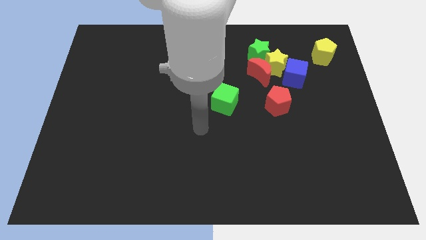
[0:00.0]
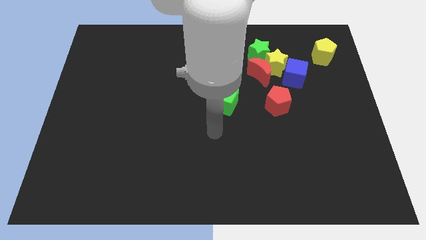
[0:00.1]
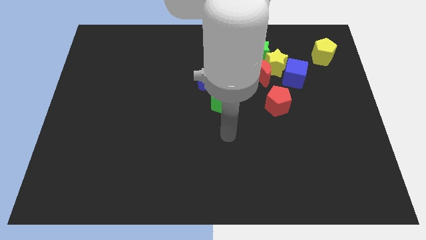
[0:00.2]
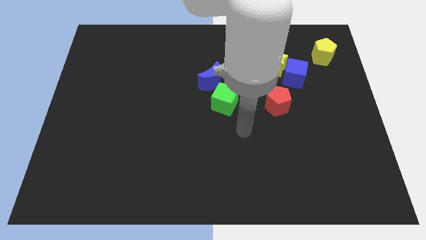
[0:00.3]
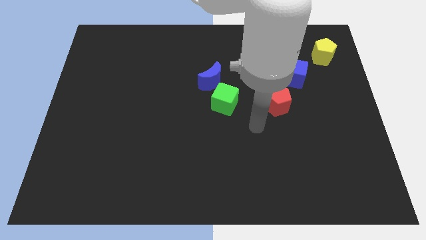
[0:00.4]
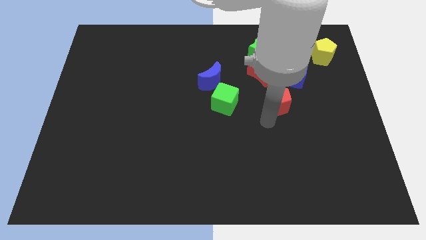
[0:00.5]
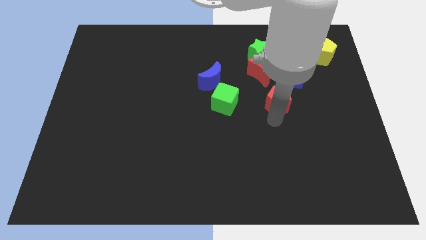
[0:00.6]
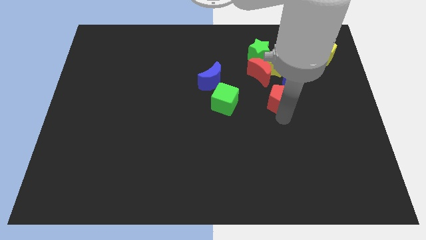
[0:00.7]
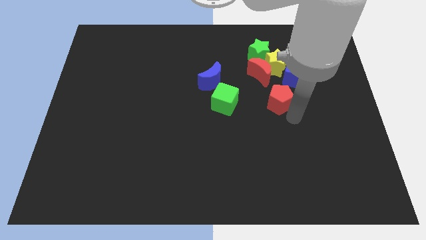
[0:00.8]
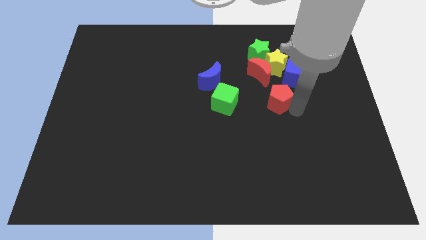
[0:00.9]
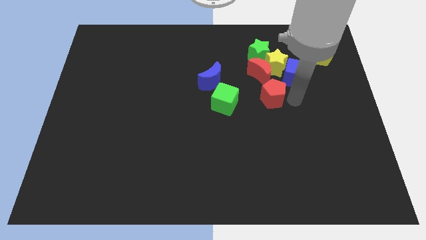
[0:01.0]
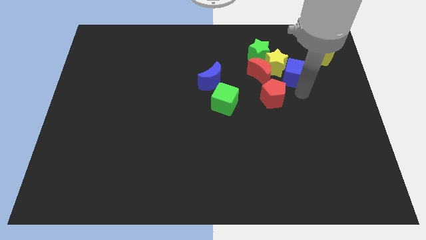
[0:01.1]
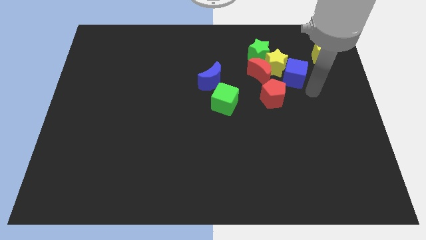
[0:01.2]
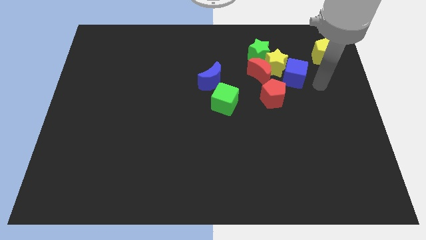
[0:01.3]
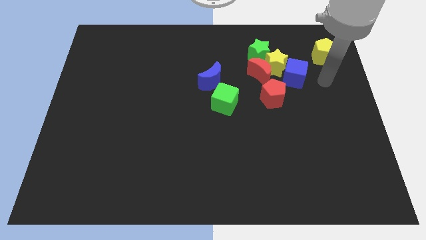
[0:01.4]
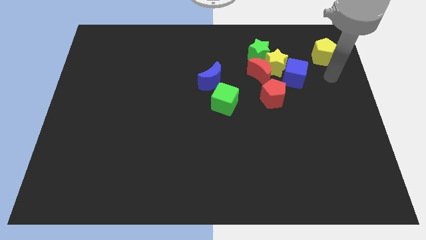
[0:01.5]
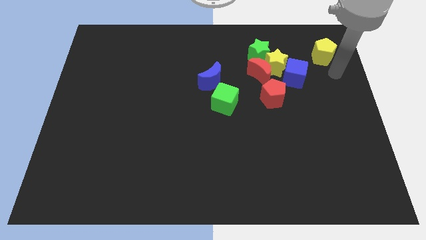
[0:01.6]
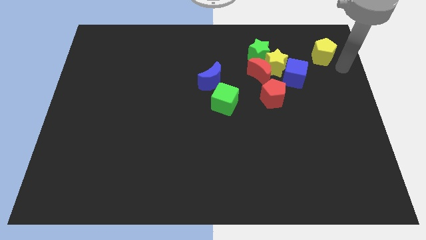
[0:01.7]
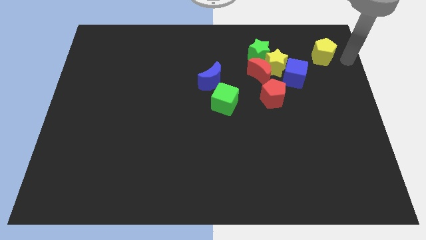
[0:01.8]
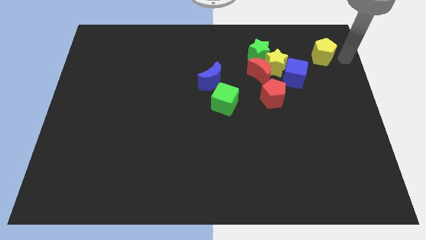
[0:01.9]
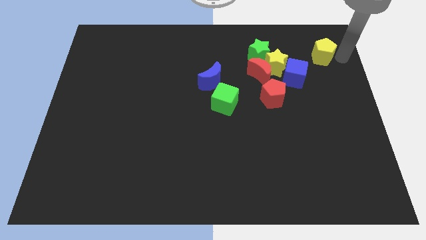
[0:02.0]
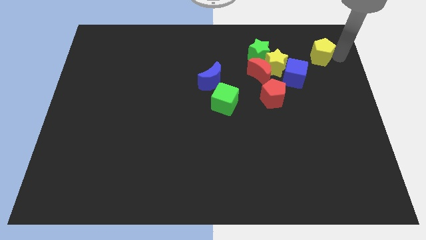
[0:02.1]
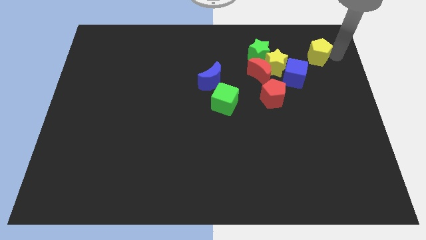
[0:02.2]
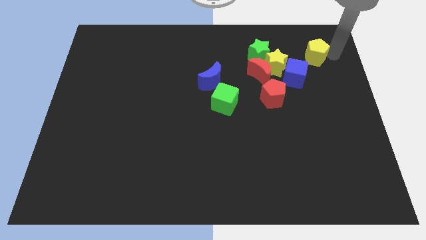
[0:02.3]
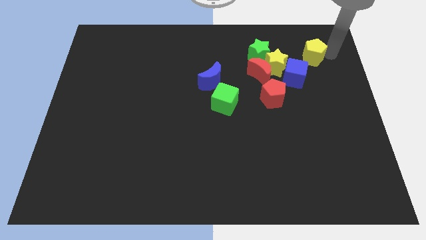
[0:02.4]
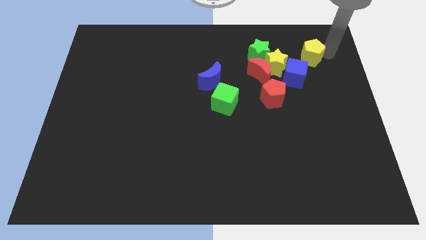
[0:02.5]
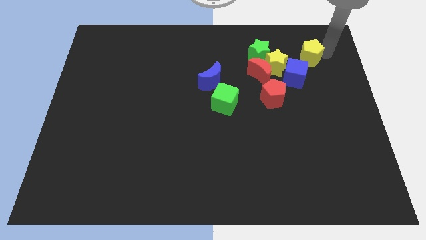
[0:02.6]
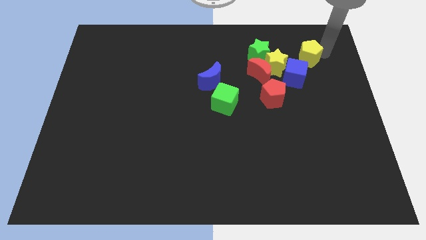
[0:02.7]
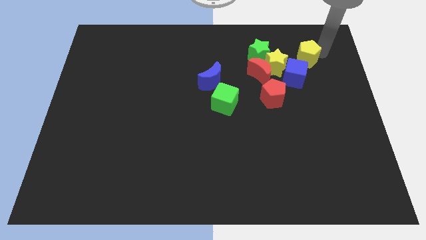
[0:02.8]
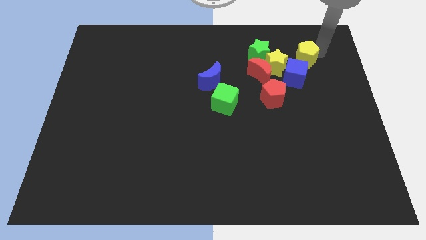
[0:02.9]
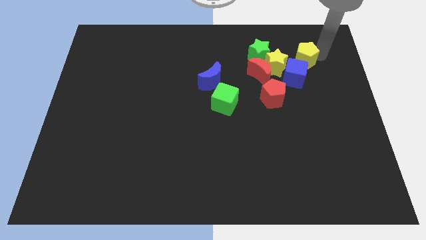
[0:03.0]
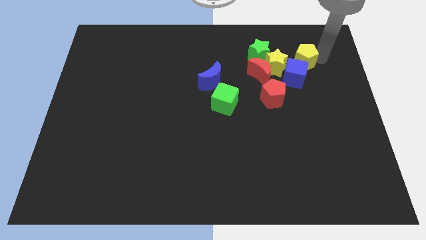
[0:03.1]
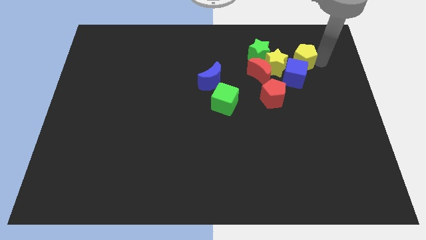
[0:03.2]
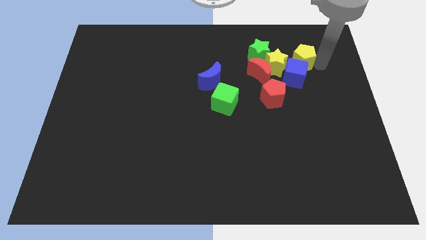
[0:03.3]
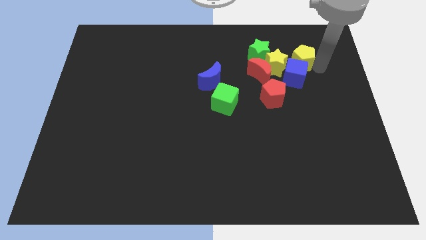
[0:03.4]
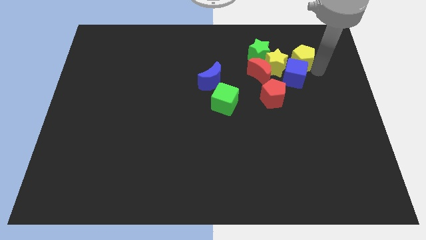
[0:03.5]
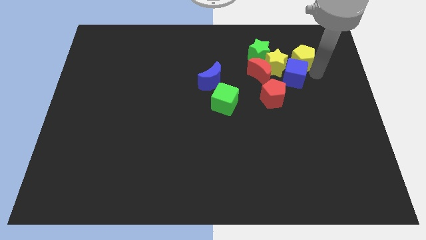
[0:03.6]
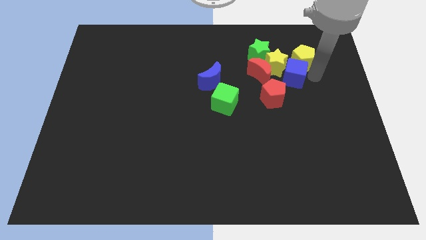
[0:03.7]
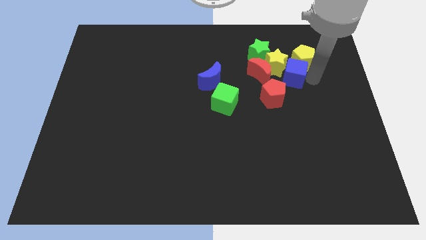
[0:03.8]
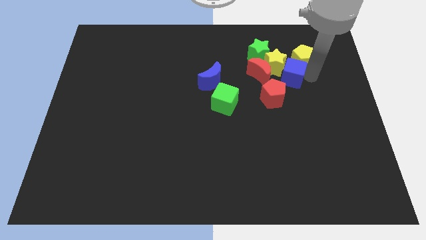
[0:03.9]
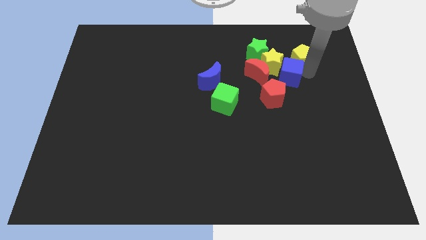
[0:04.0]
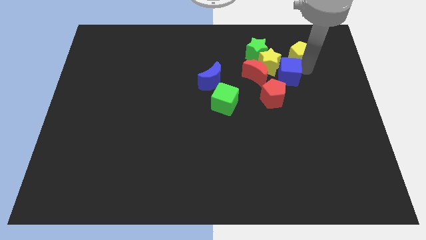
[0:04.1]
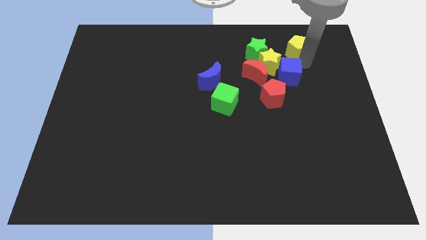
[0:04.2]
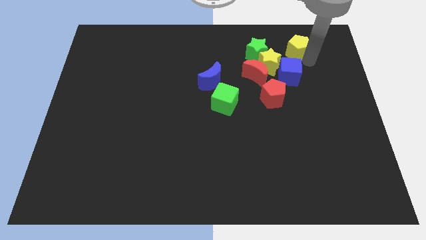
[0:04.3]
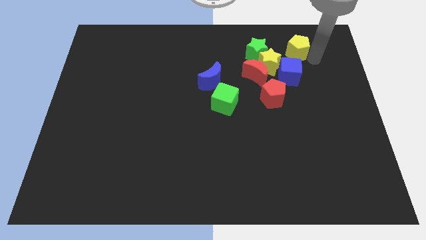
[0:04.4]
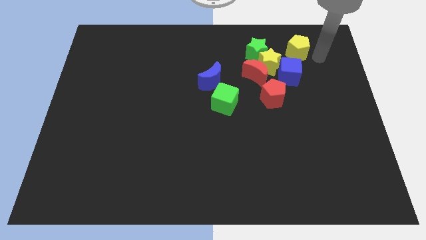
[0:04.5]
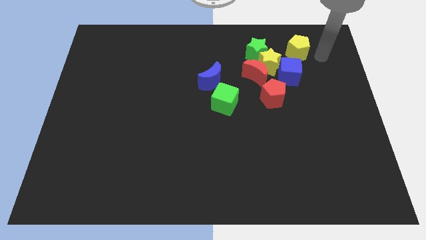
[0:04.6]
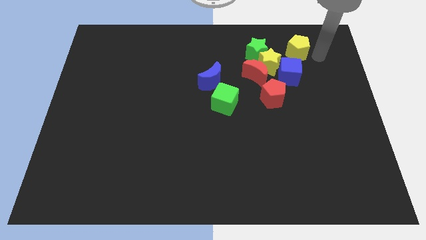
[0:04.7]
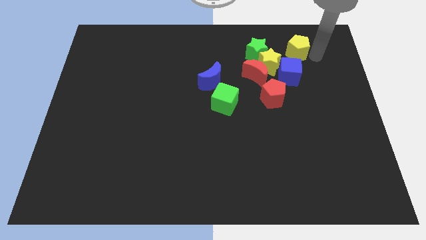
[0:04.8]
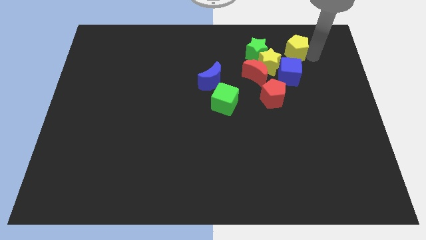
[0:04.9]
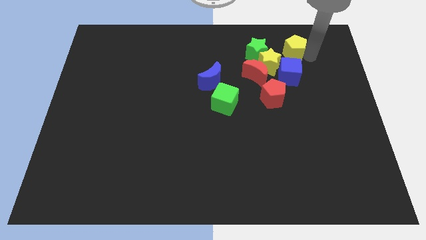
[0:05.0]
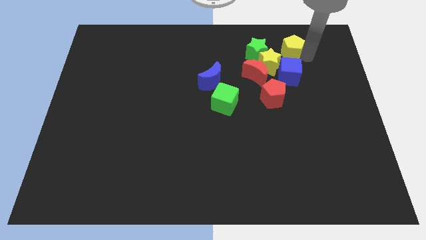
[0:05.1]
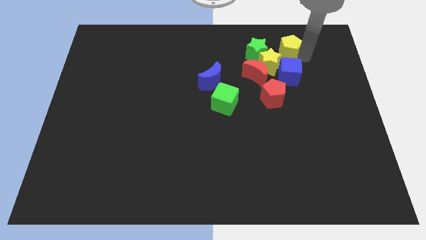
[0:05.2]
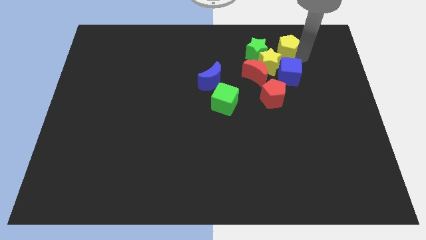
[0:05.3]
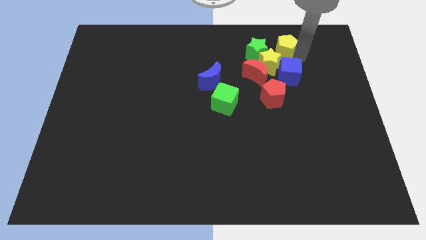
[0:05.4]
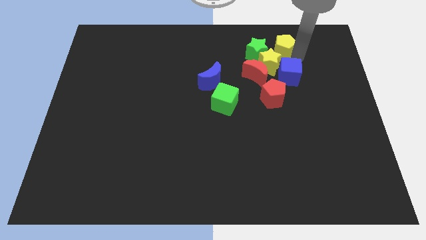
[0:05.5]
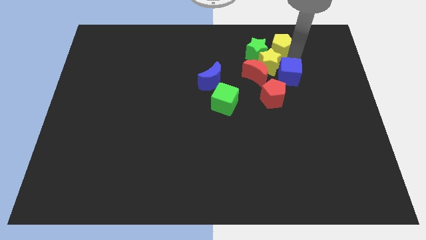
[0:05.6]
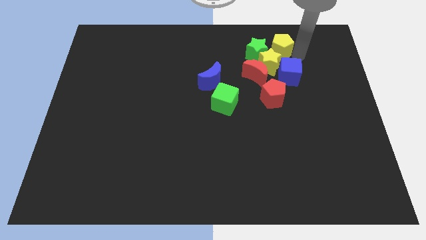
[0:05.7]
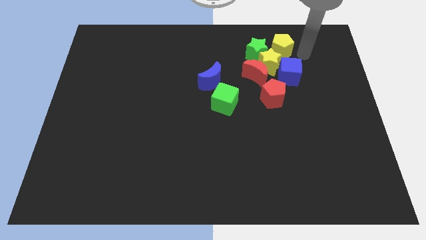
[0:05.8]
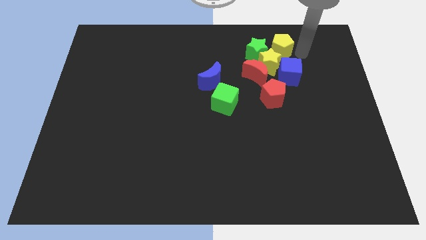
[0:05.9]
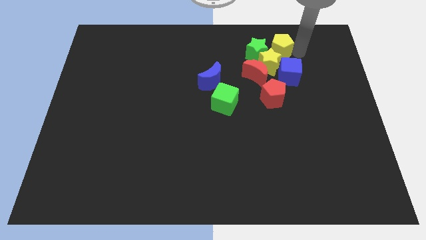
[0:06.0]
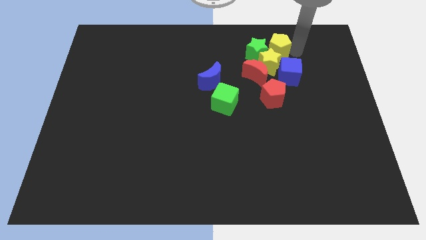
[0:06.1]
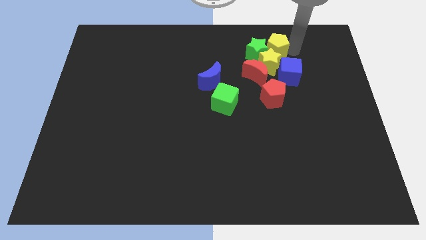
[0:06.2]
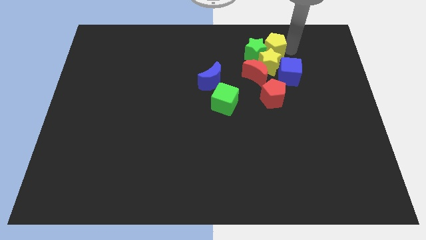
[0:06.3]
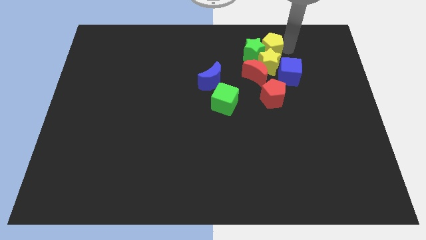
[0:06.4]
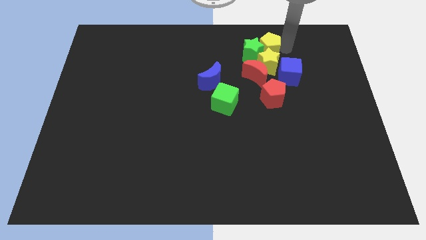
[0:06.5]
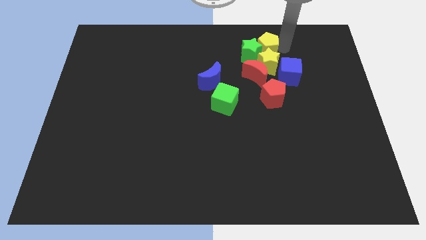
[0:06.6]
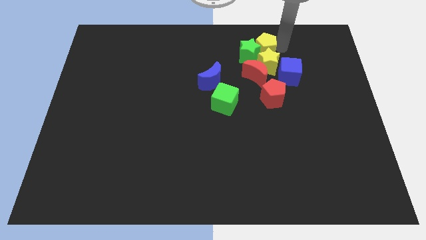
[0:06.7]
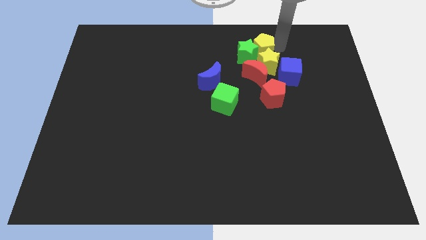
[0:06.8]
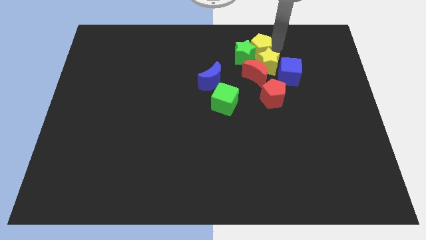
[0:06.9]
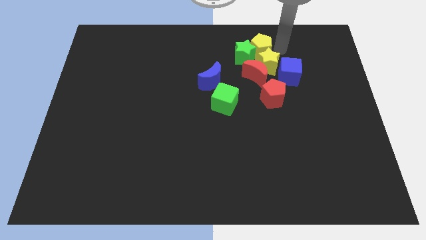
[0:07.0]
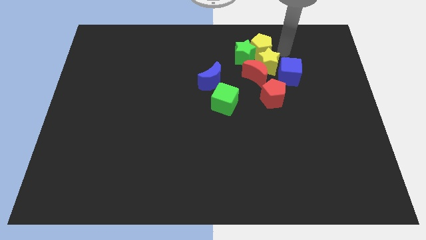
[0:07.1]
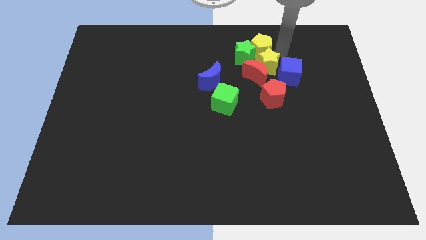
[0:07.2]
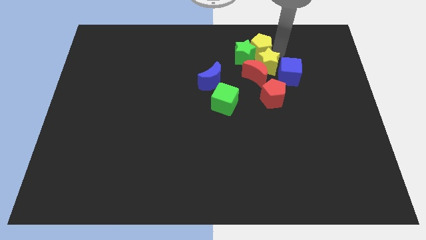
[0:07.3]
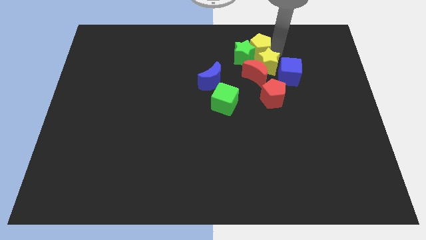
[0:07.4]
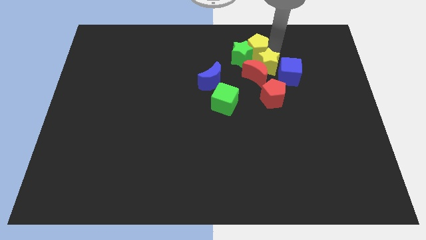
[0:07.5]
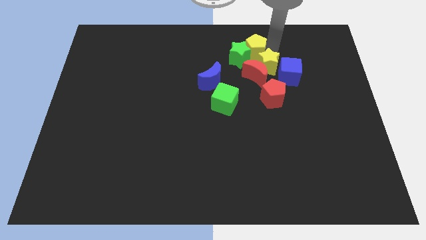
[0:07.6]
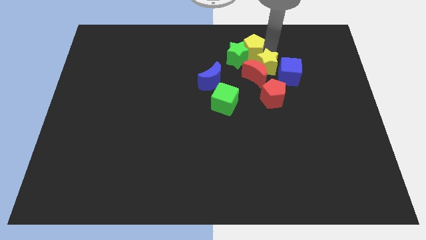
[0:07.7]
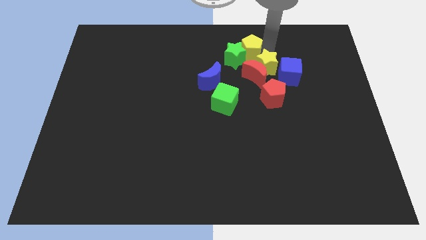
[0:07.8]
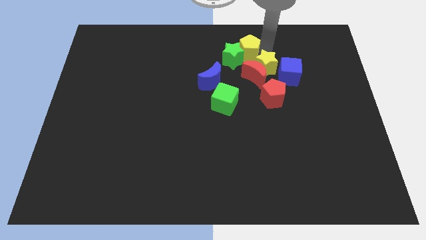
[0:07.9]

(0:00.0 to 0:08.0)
push the yellow pentagon to the left

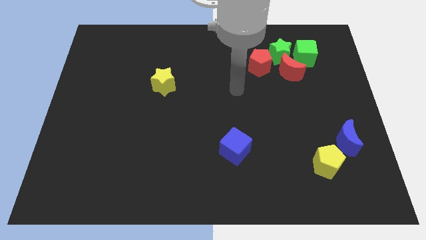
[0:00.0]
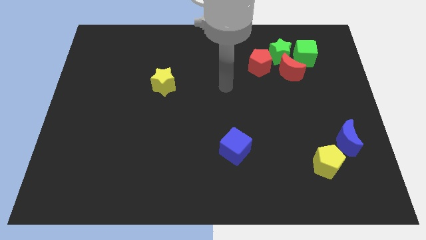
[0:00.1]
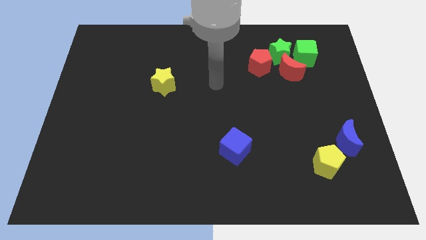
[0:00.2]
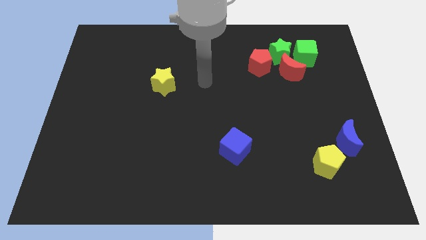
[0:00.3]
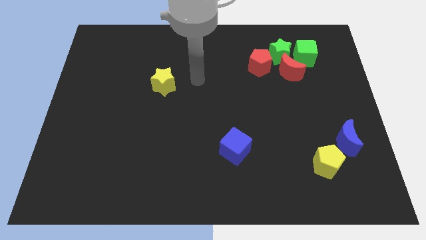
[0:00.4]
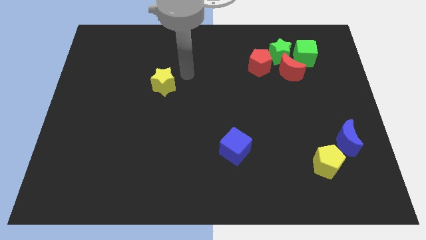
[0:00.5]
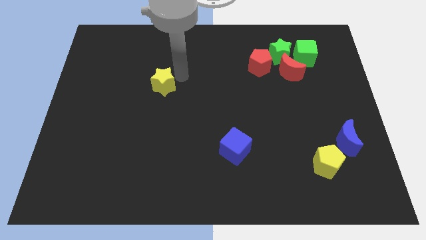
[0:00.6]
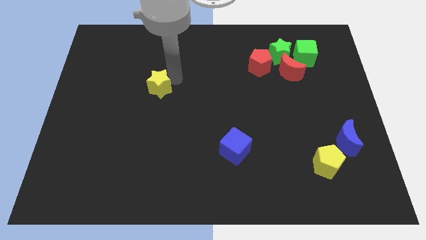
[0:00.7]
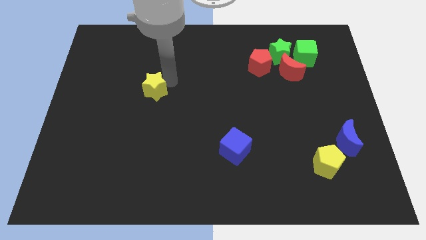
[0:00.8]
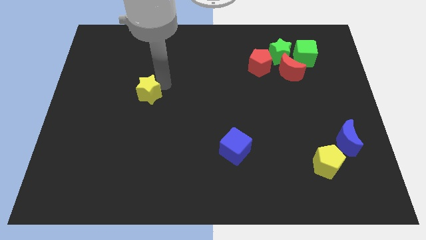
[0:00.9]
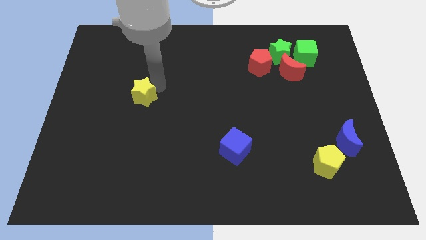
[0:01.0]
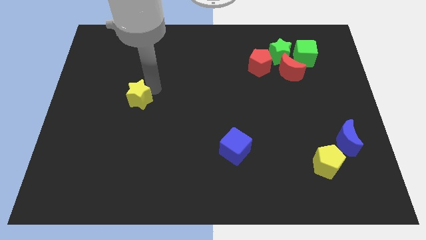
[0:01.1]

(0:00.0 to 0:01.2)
push the yellow star a bit downwards and to the left diagonally
